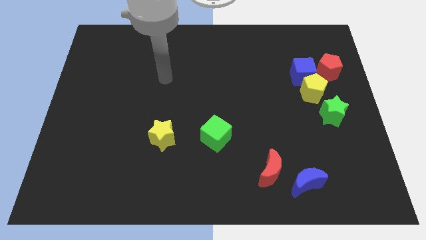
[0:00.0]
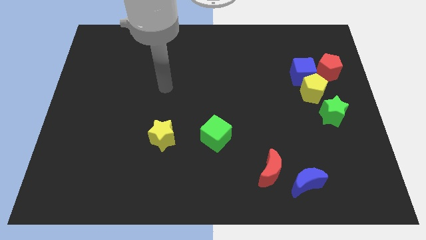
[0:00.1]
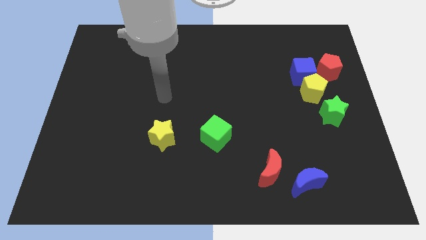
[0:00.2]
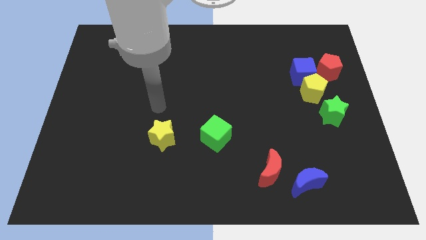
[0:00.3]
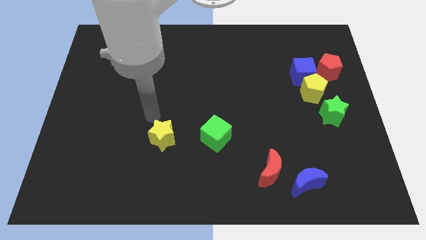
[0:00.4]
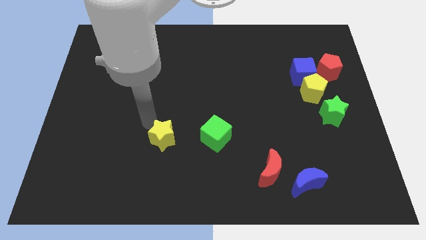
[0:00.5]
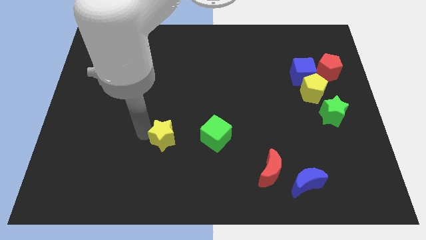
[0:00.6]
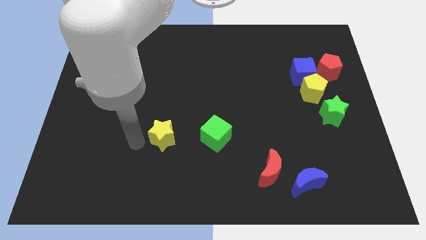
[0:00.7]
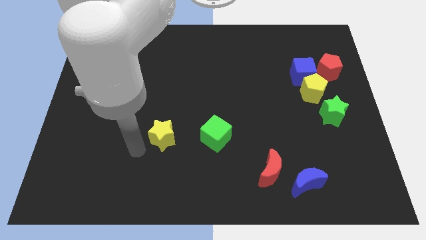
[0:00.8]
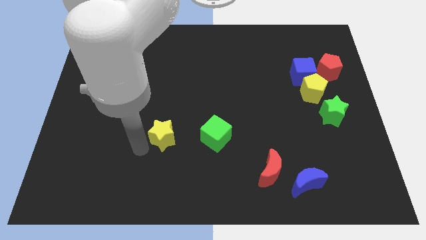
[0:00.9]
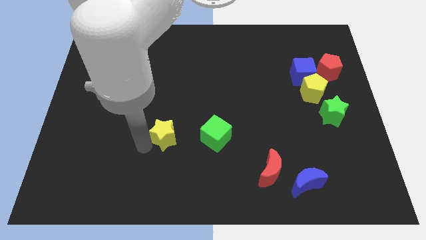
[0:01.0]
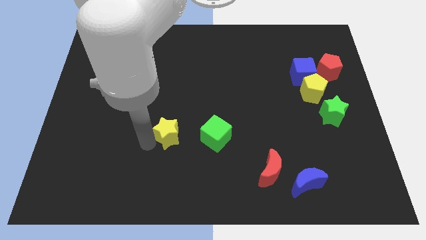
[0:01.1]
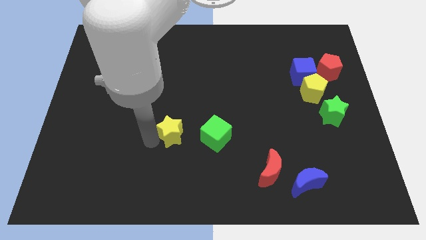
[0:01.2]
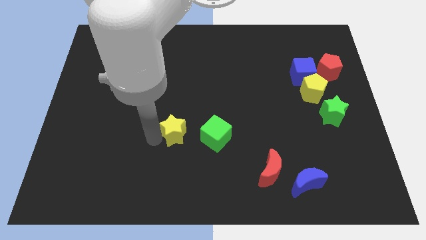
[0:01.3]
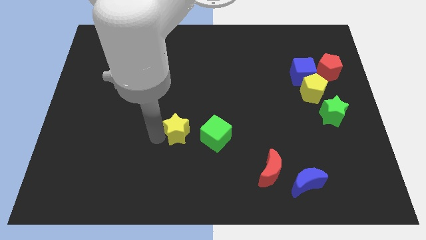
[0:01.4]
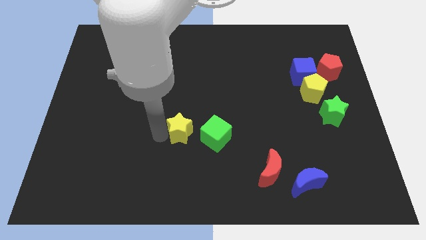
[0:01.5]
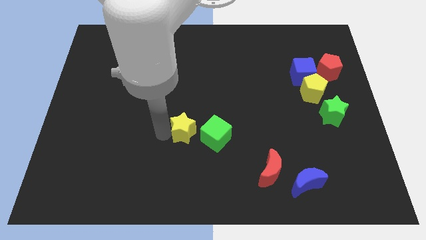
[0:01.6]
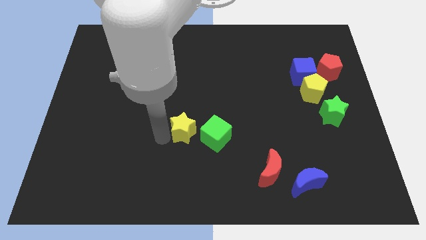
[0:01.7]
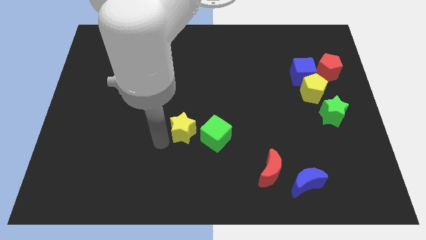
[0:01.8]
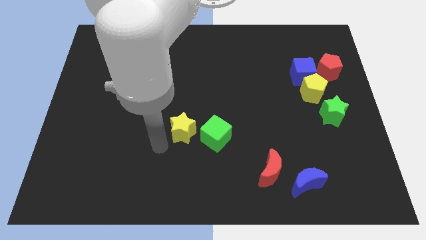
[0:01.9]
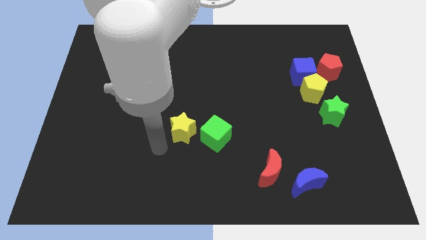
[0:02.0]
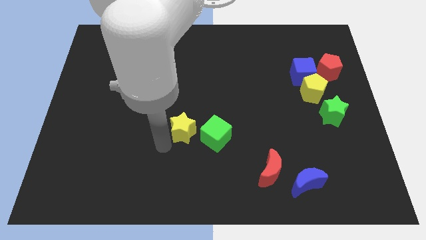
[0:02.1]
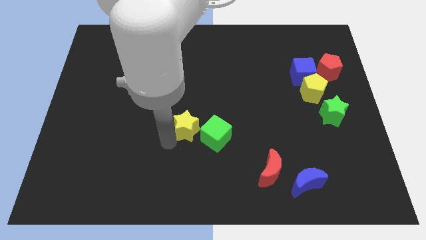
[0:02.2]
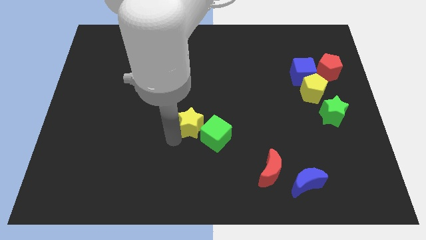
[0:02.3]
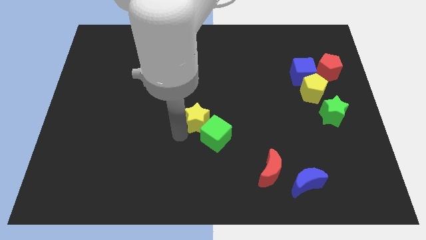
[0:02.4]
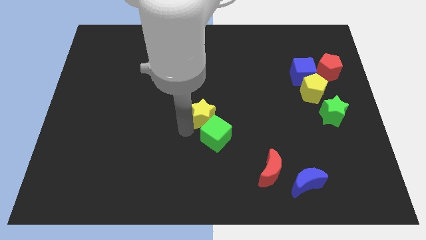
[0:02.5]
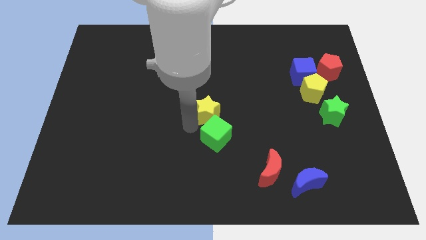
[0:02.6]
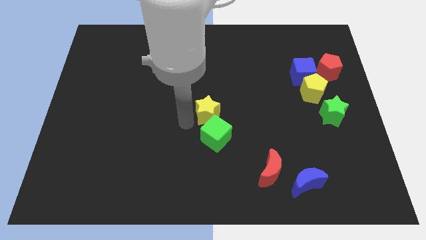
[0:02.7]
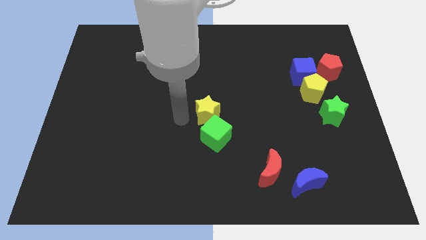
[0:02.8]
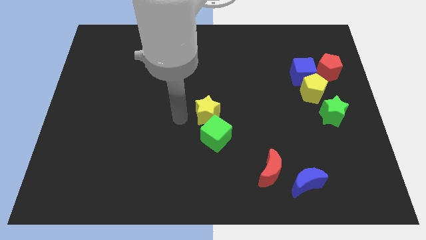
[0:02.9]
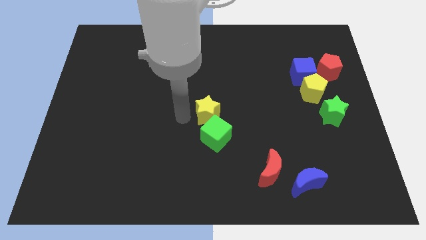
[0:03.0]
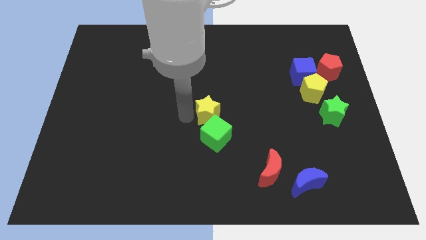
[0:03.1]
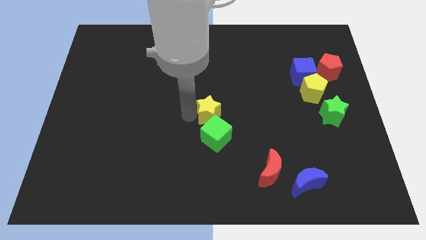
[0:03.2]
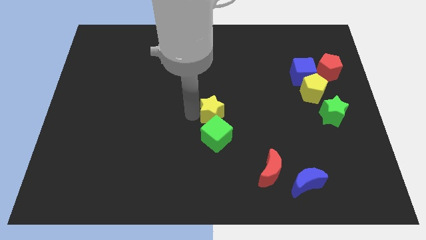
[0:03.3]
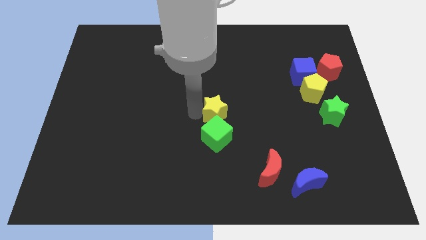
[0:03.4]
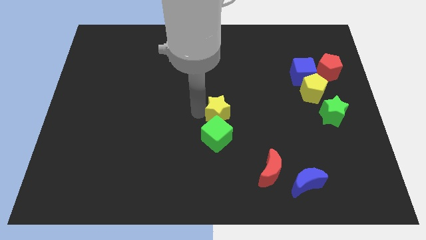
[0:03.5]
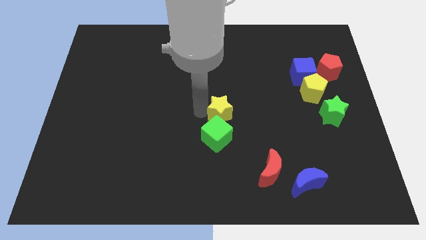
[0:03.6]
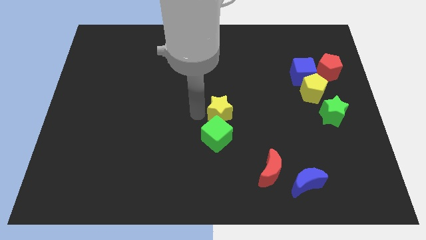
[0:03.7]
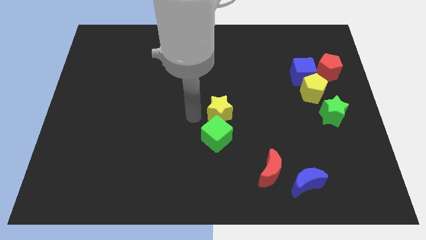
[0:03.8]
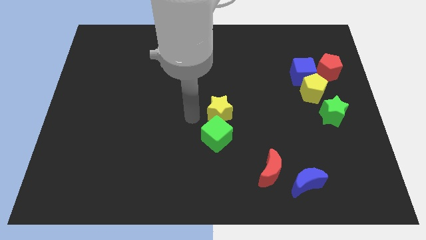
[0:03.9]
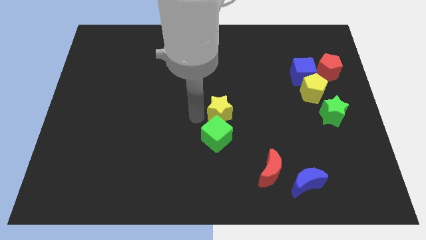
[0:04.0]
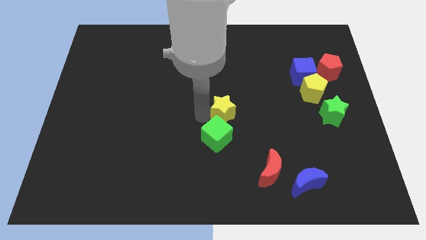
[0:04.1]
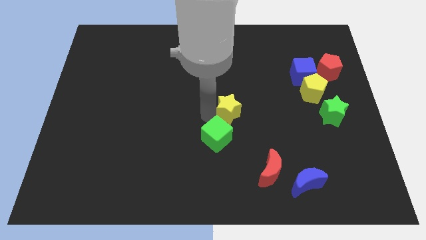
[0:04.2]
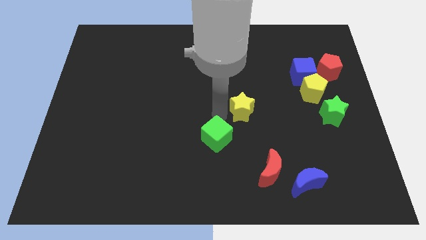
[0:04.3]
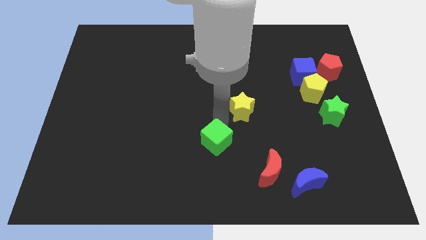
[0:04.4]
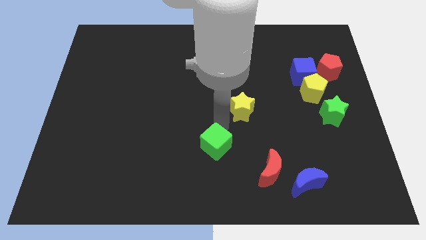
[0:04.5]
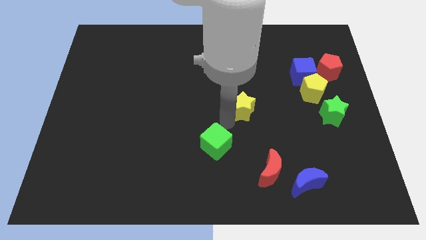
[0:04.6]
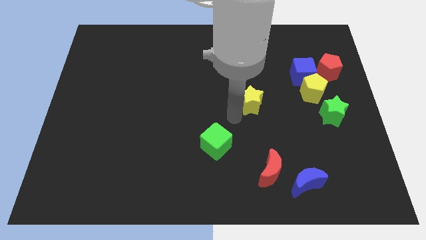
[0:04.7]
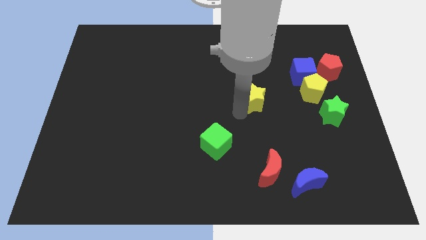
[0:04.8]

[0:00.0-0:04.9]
push the yellow star left of the yellow pentagon

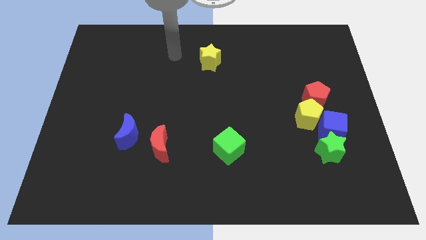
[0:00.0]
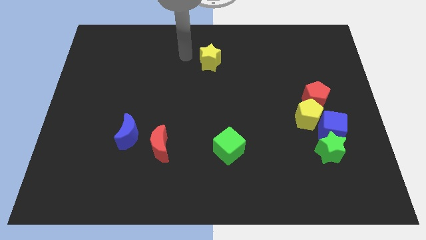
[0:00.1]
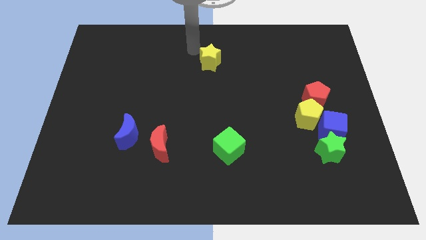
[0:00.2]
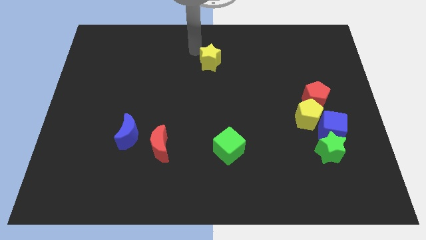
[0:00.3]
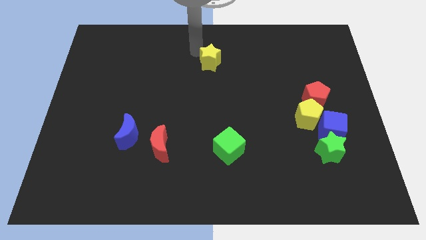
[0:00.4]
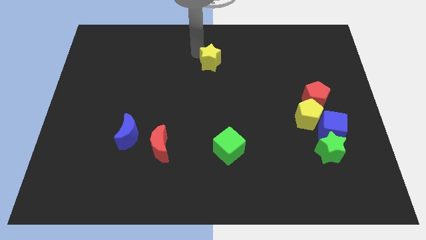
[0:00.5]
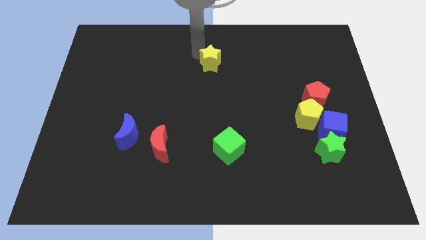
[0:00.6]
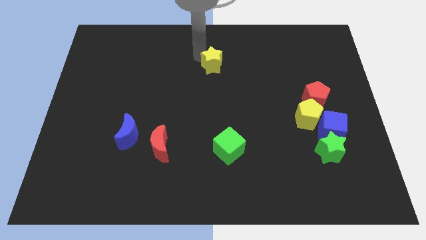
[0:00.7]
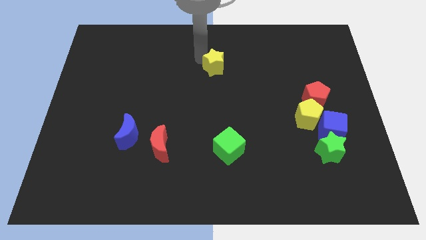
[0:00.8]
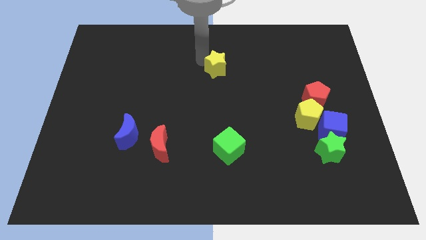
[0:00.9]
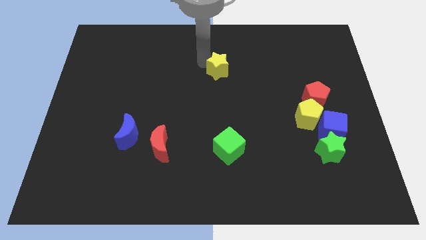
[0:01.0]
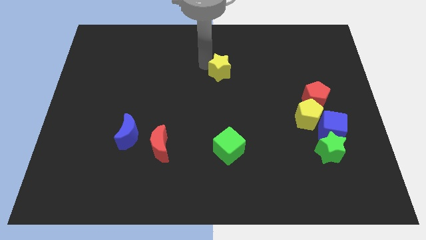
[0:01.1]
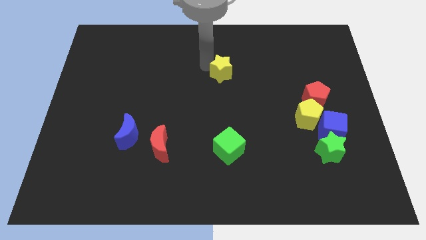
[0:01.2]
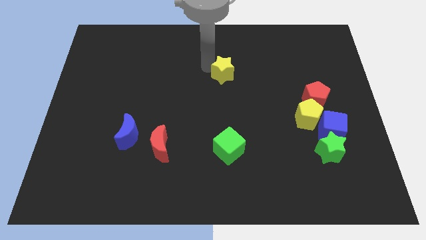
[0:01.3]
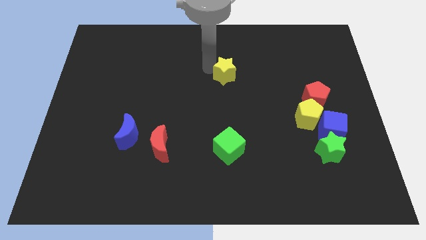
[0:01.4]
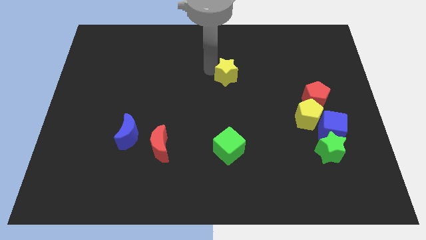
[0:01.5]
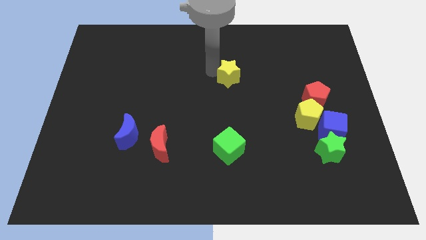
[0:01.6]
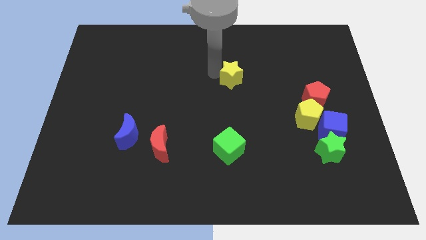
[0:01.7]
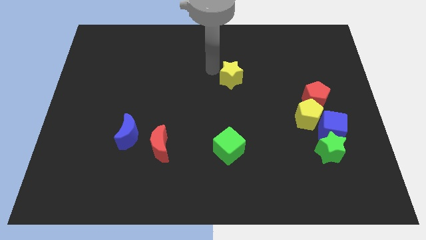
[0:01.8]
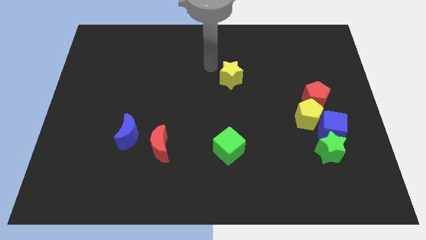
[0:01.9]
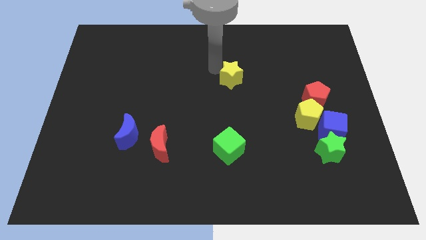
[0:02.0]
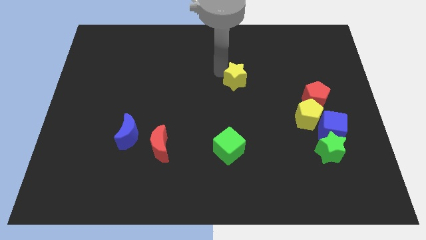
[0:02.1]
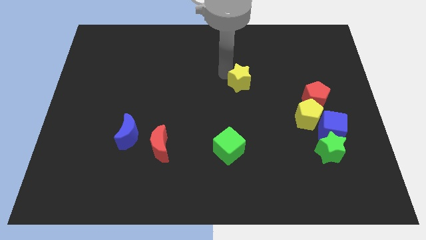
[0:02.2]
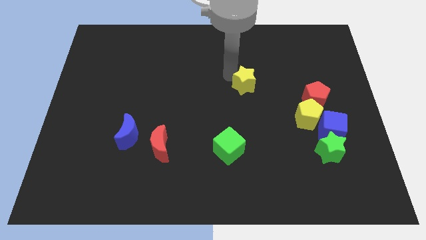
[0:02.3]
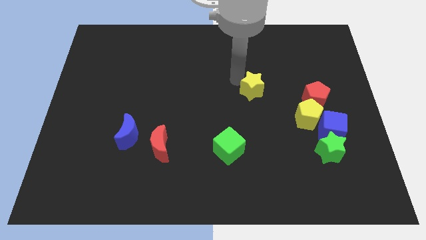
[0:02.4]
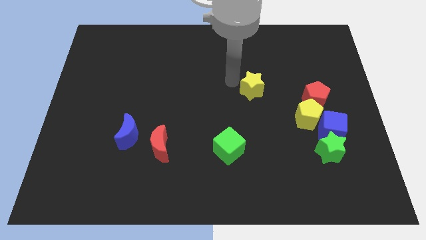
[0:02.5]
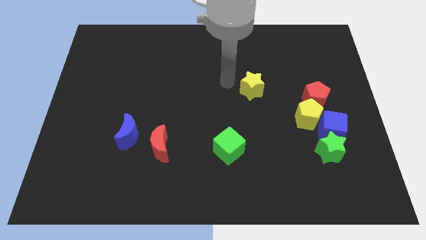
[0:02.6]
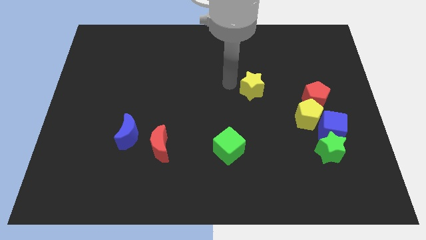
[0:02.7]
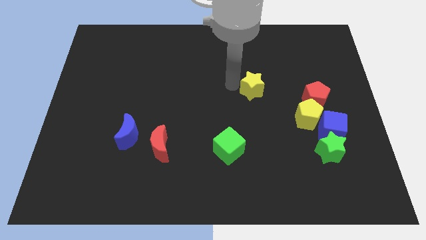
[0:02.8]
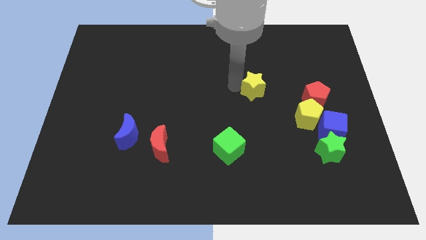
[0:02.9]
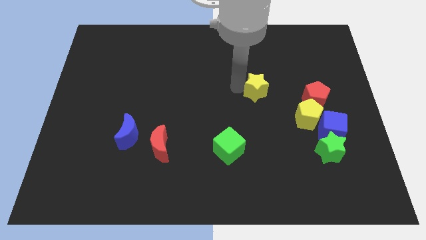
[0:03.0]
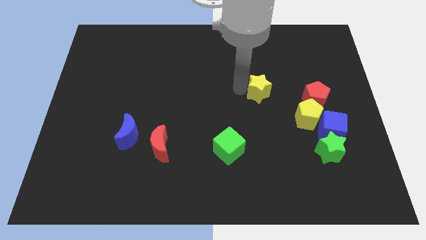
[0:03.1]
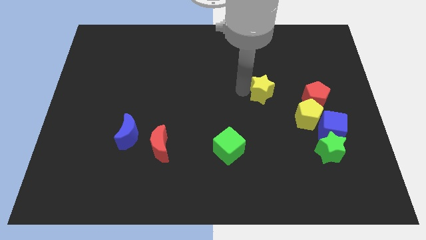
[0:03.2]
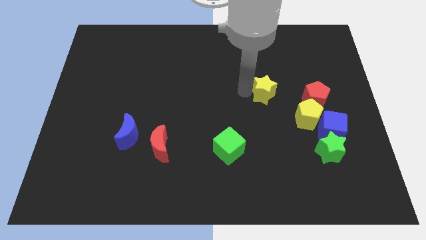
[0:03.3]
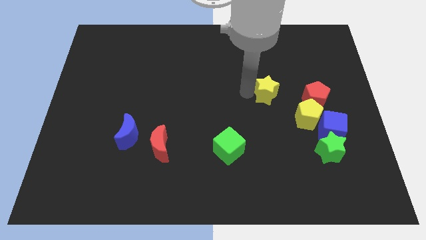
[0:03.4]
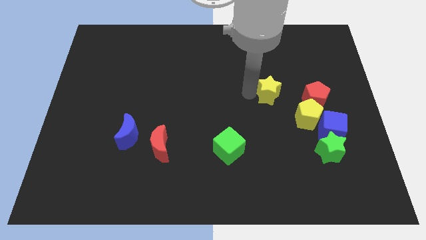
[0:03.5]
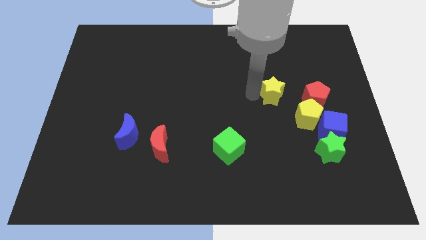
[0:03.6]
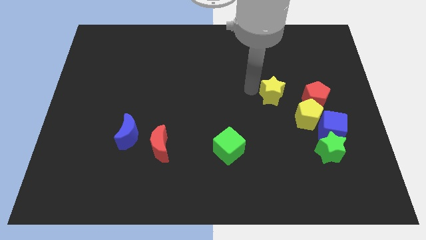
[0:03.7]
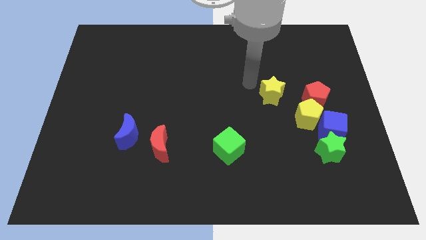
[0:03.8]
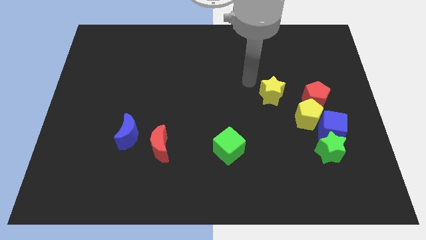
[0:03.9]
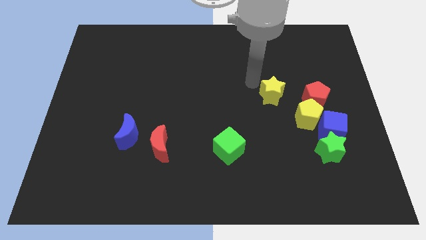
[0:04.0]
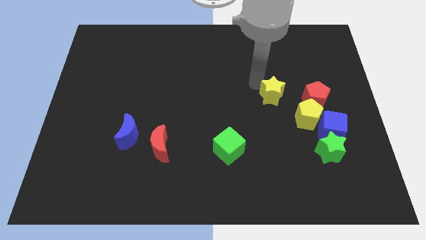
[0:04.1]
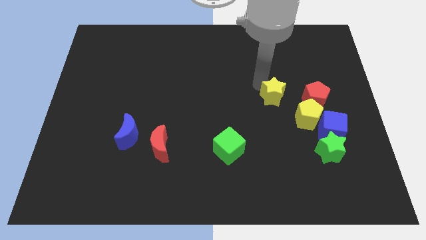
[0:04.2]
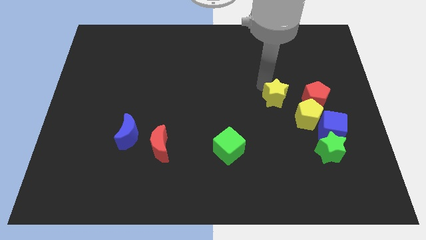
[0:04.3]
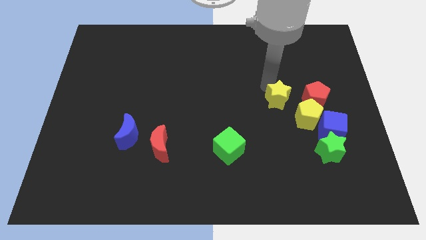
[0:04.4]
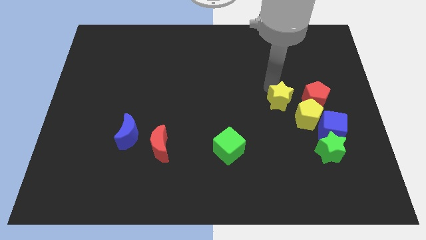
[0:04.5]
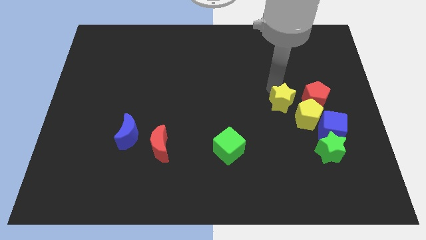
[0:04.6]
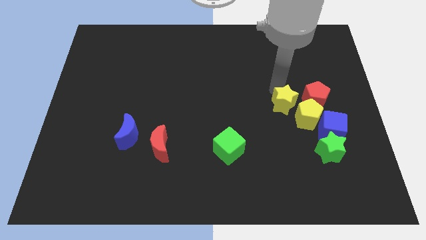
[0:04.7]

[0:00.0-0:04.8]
move the yellow star diagonally up and to the left of the blue cube
